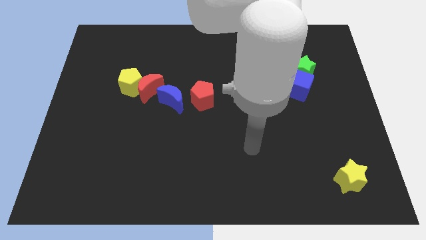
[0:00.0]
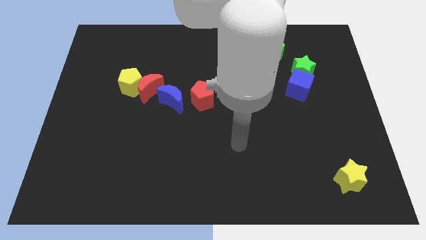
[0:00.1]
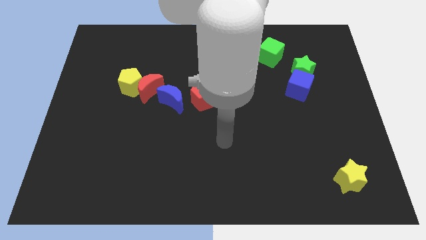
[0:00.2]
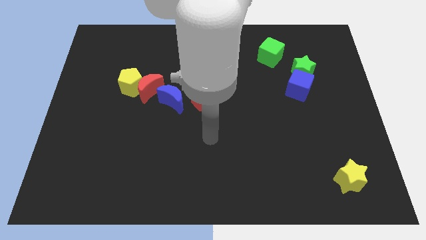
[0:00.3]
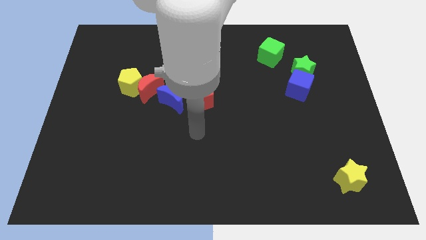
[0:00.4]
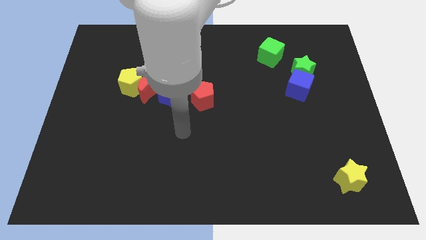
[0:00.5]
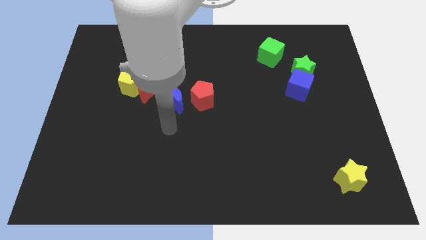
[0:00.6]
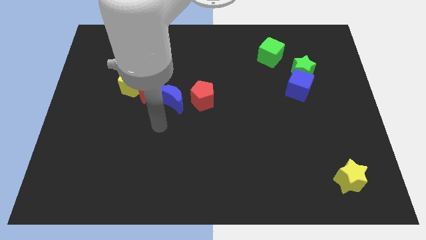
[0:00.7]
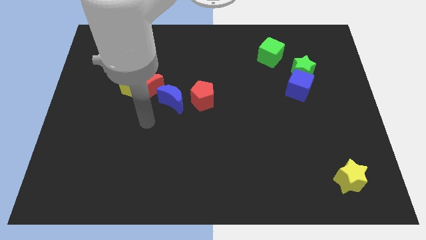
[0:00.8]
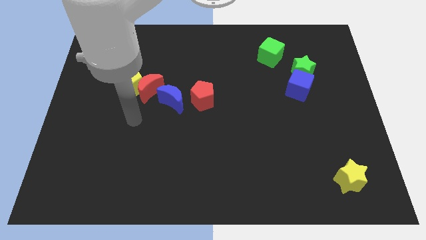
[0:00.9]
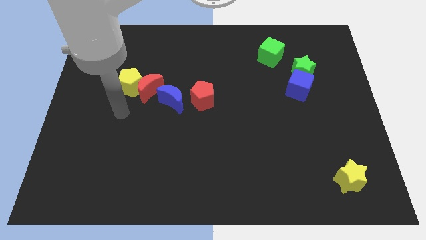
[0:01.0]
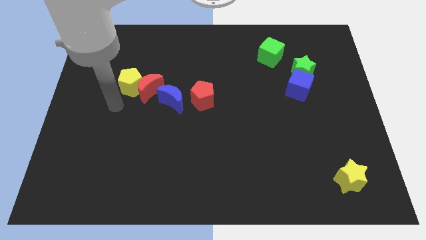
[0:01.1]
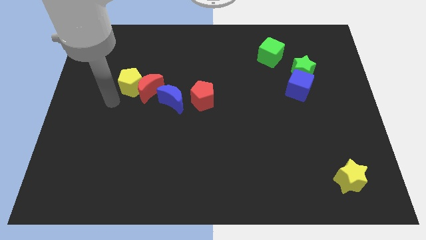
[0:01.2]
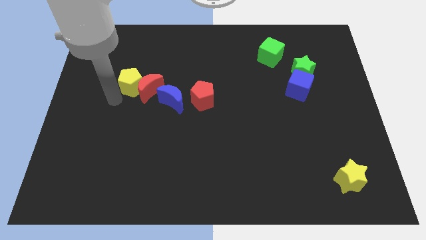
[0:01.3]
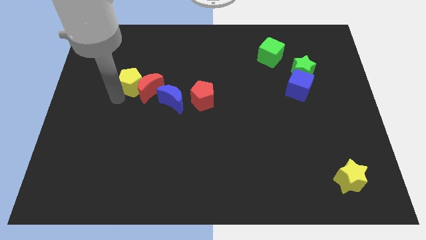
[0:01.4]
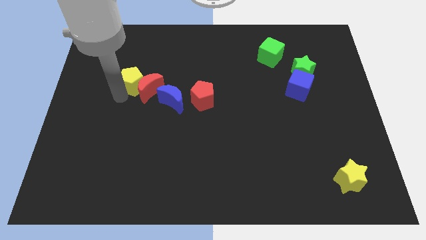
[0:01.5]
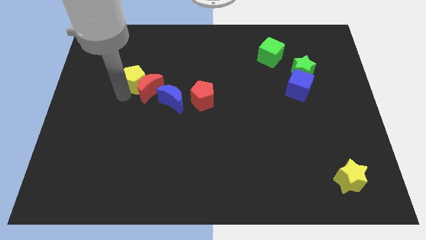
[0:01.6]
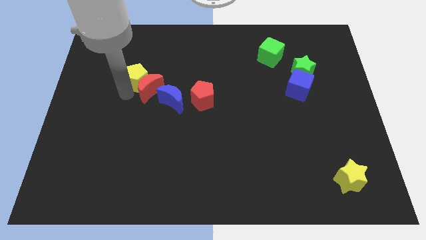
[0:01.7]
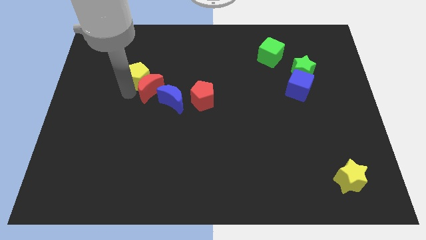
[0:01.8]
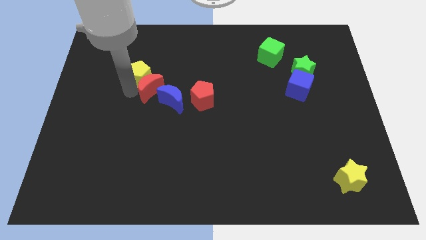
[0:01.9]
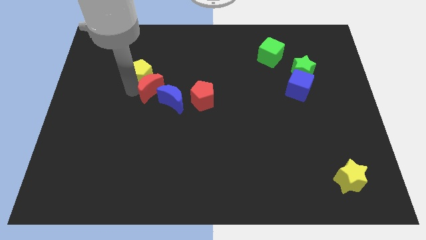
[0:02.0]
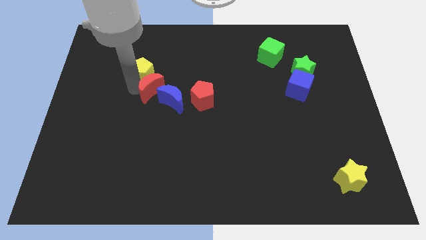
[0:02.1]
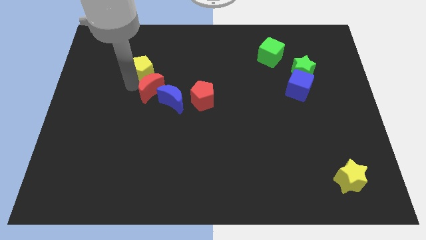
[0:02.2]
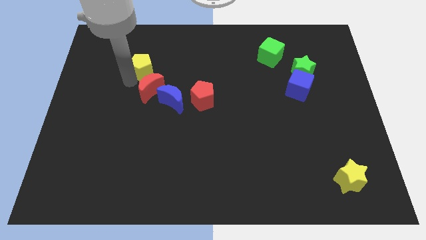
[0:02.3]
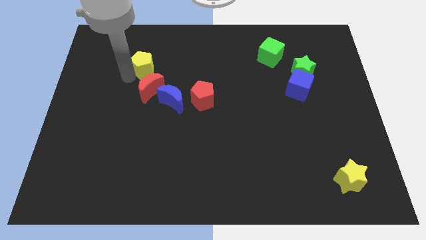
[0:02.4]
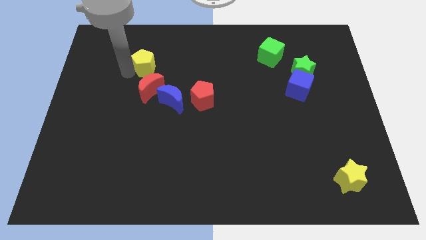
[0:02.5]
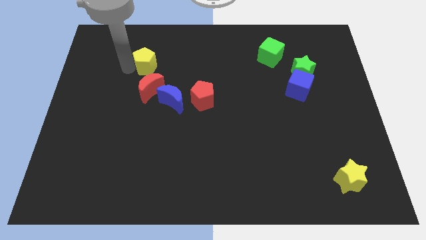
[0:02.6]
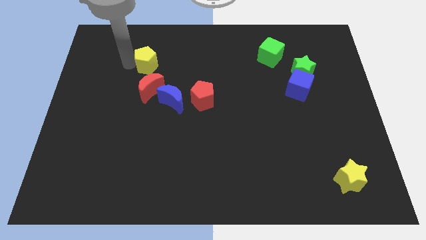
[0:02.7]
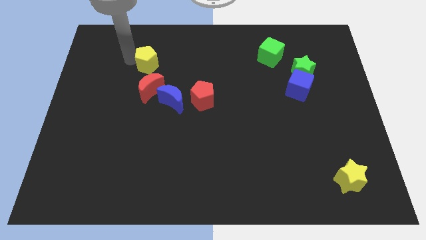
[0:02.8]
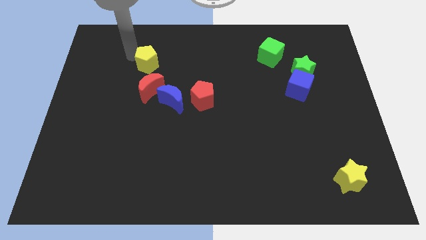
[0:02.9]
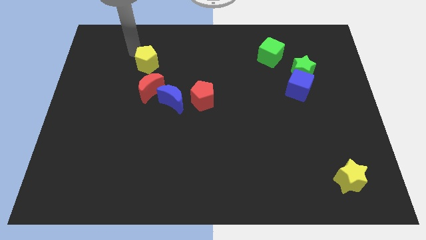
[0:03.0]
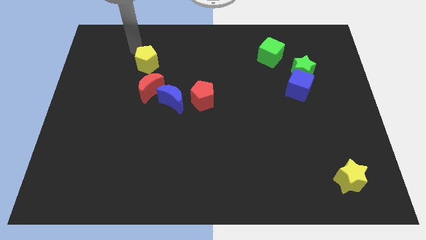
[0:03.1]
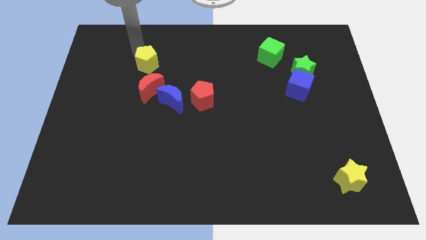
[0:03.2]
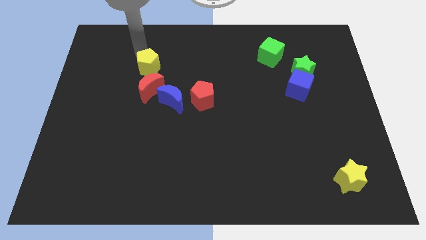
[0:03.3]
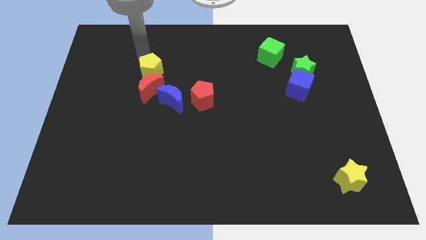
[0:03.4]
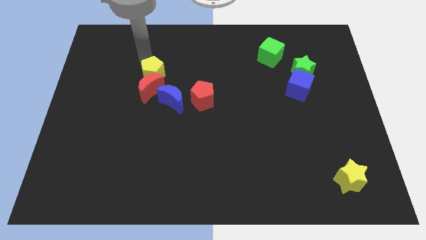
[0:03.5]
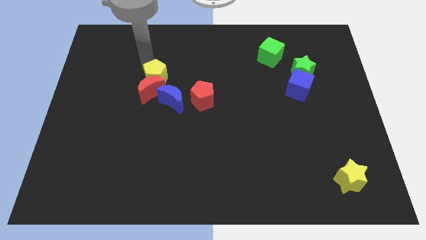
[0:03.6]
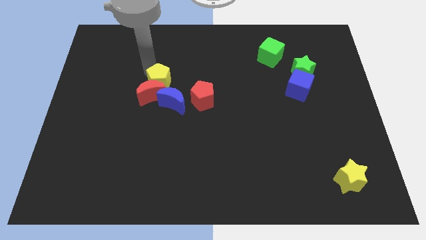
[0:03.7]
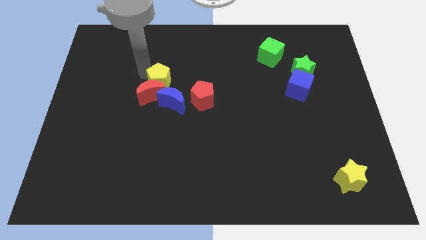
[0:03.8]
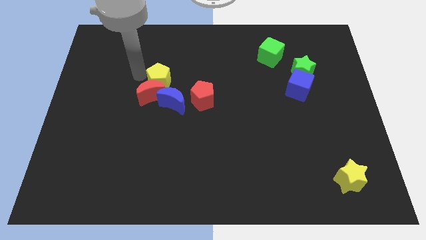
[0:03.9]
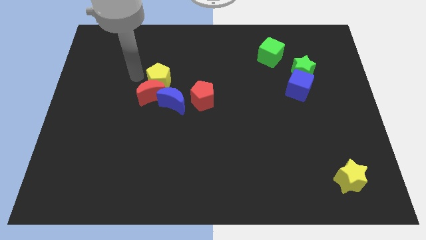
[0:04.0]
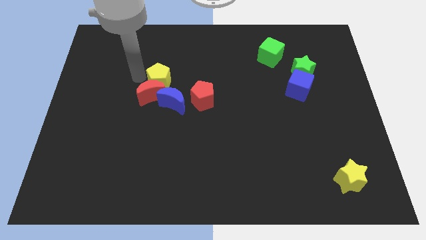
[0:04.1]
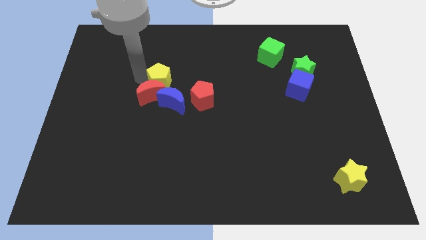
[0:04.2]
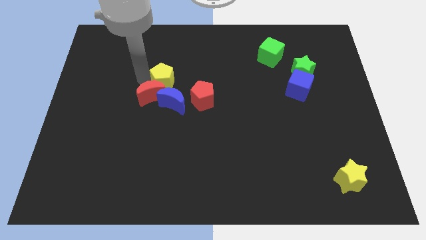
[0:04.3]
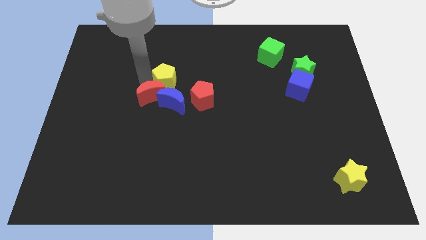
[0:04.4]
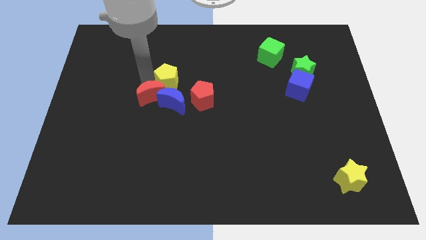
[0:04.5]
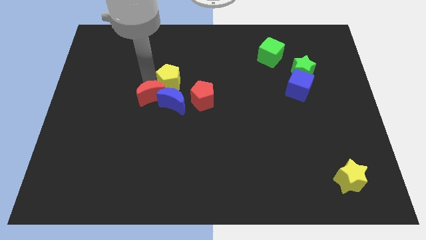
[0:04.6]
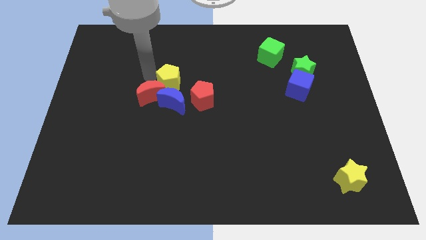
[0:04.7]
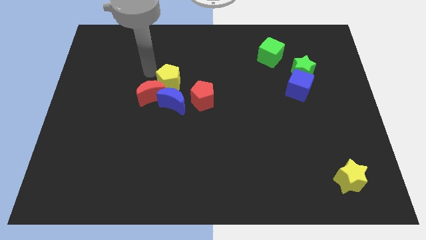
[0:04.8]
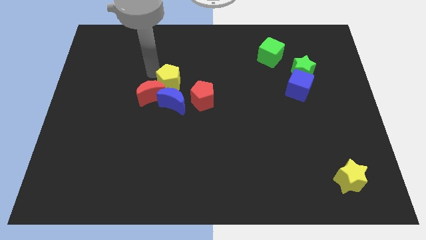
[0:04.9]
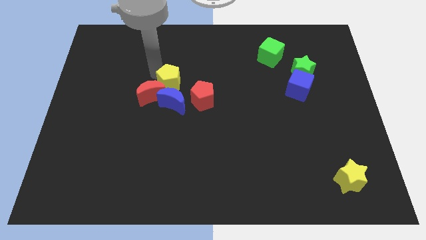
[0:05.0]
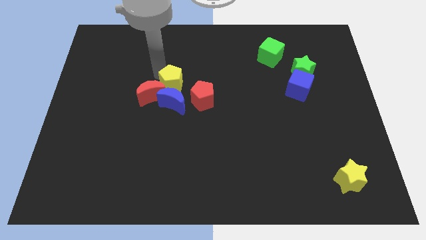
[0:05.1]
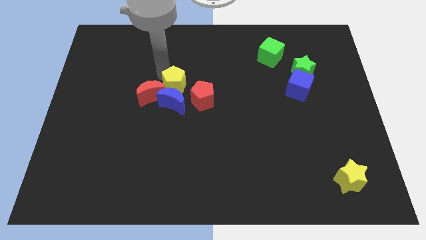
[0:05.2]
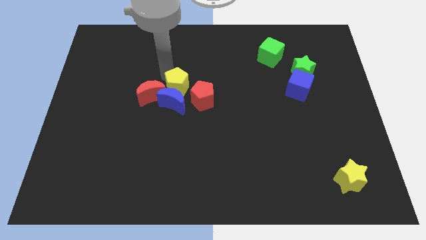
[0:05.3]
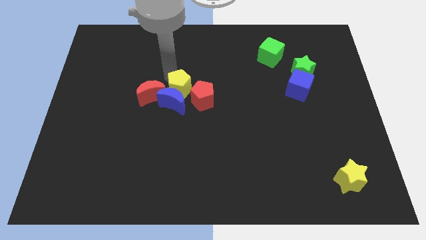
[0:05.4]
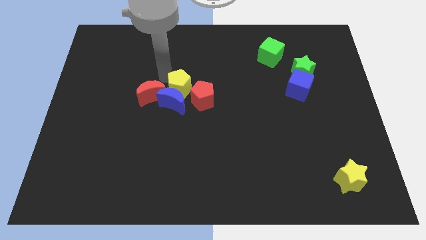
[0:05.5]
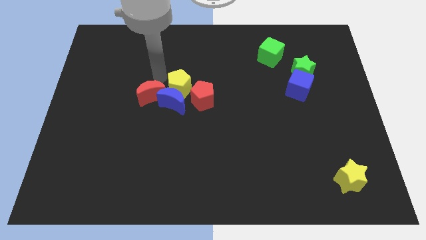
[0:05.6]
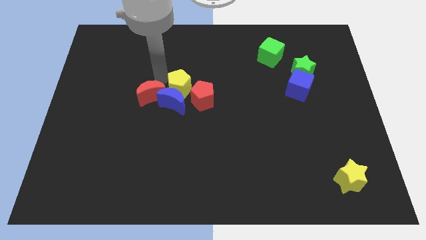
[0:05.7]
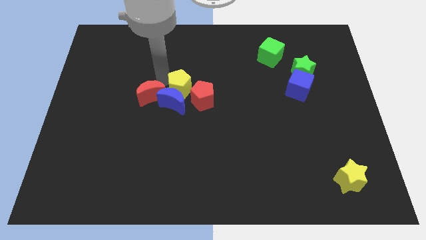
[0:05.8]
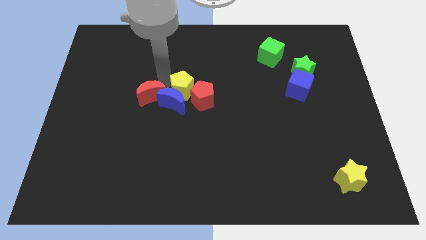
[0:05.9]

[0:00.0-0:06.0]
push the yellow pentagon next to the red pentagon
